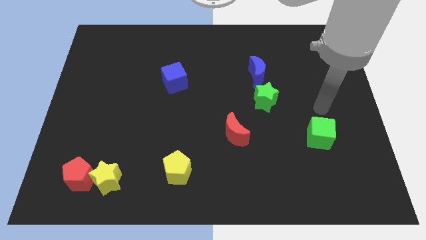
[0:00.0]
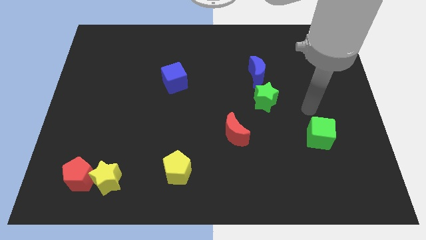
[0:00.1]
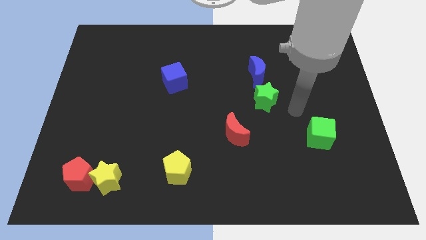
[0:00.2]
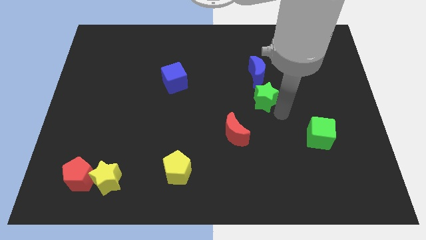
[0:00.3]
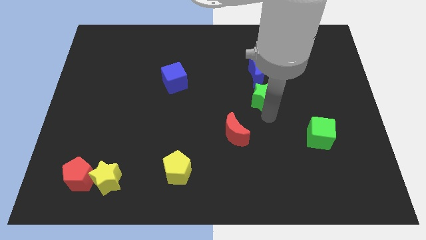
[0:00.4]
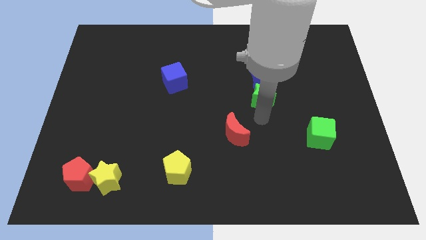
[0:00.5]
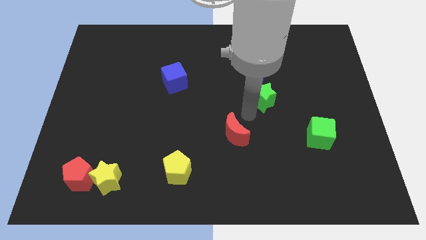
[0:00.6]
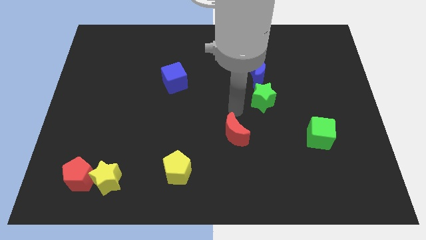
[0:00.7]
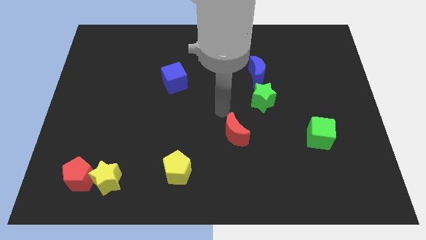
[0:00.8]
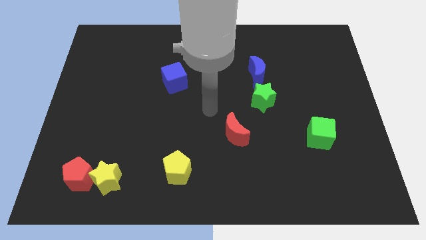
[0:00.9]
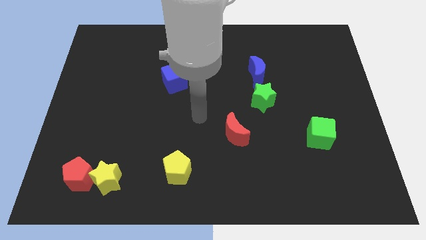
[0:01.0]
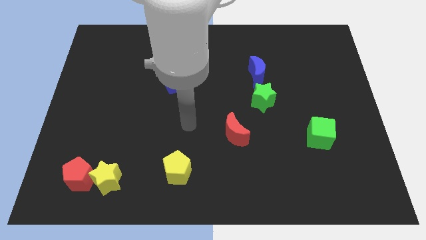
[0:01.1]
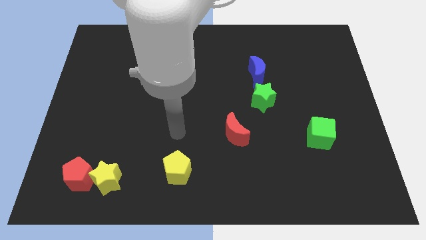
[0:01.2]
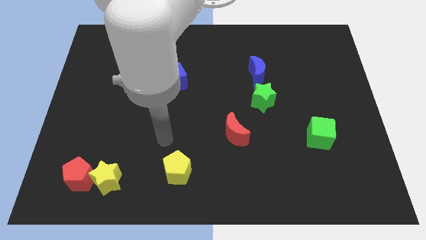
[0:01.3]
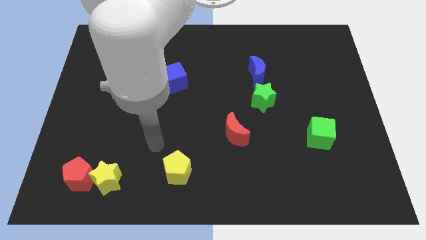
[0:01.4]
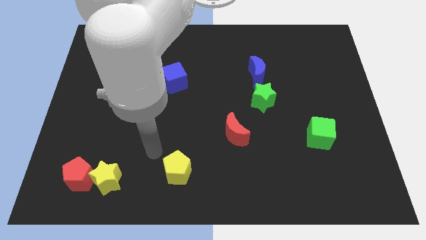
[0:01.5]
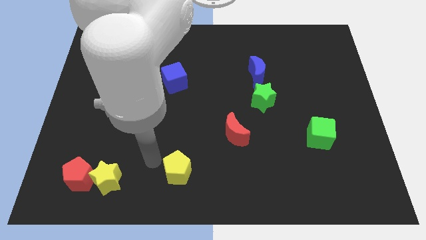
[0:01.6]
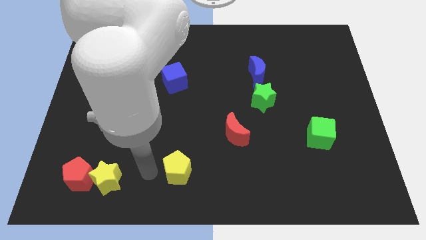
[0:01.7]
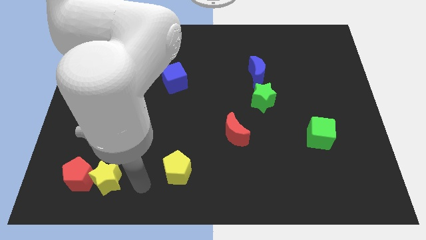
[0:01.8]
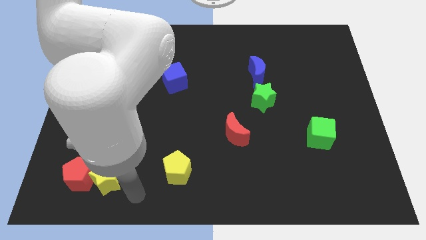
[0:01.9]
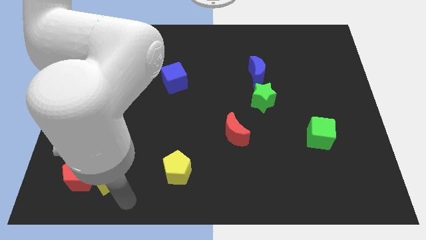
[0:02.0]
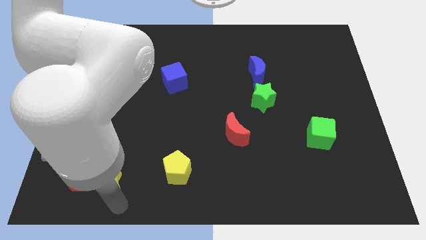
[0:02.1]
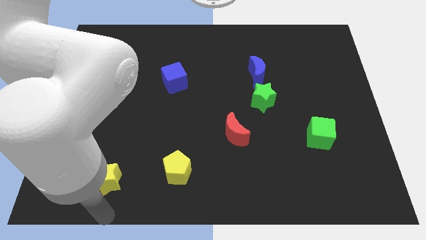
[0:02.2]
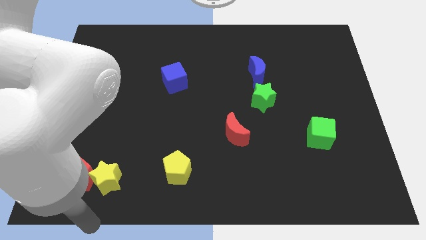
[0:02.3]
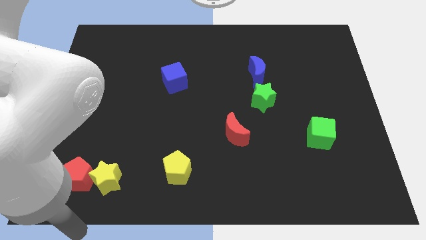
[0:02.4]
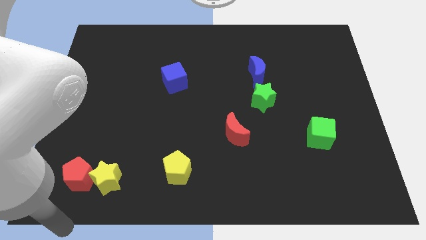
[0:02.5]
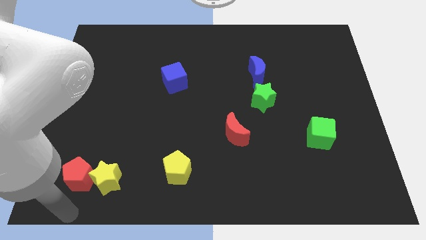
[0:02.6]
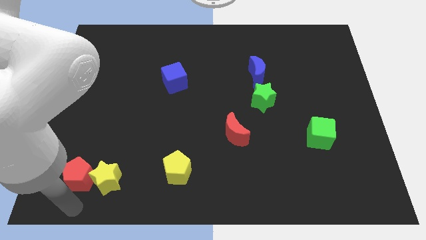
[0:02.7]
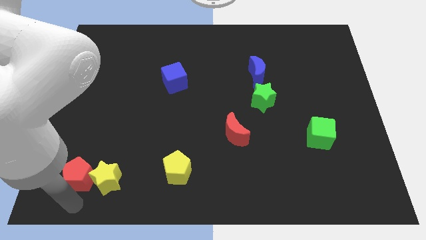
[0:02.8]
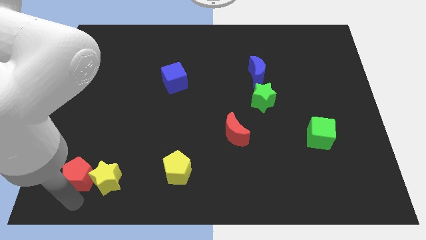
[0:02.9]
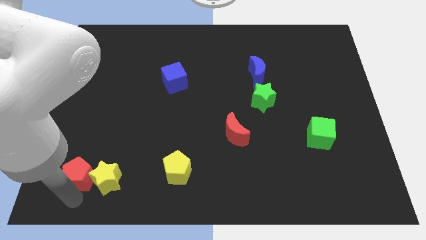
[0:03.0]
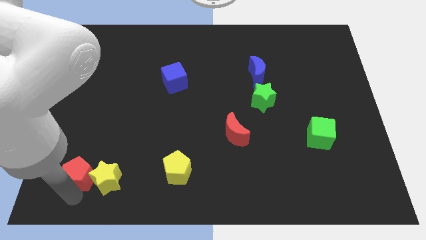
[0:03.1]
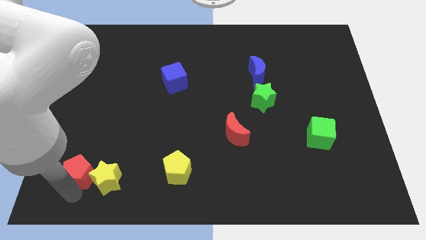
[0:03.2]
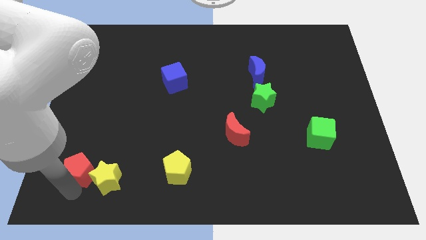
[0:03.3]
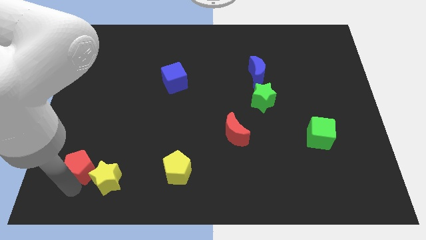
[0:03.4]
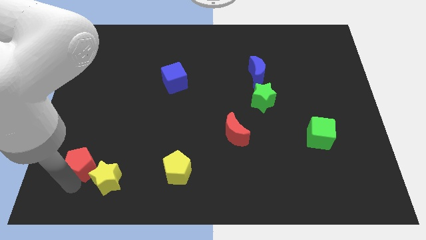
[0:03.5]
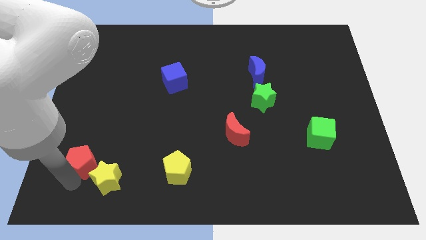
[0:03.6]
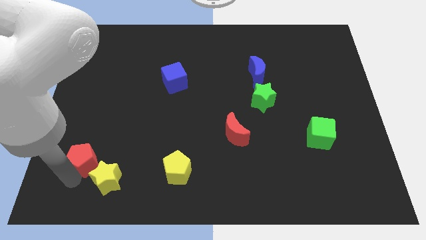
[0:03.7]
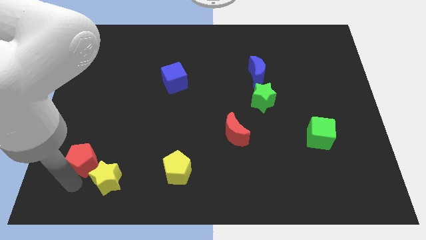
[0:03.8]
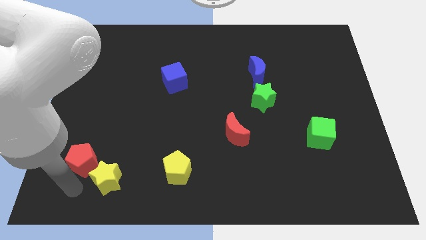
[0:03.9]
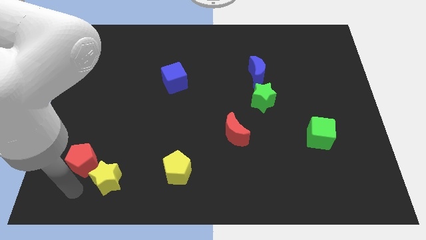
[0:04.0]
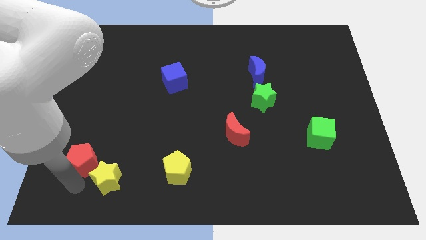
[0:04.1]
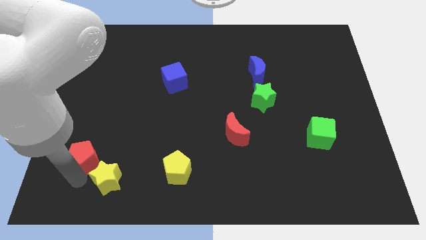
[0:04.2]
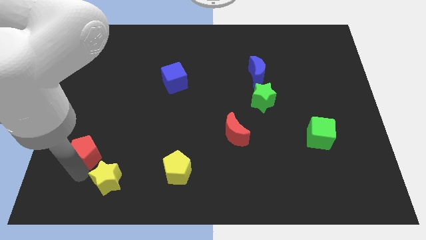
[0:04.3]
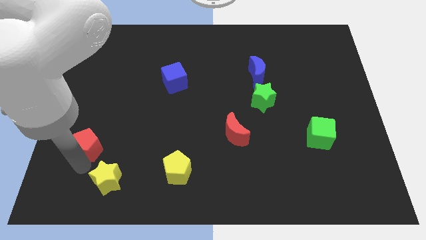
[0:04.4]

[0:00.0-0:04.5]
push the red pentagon up a bit

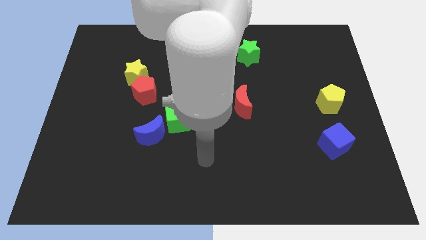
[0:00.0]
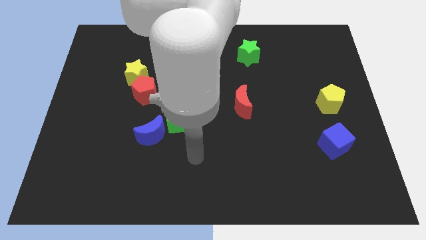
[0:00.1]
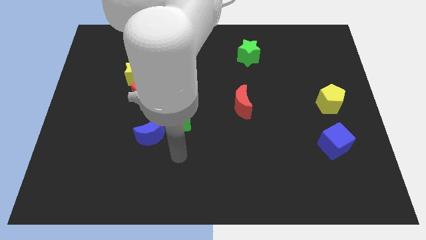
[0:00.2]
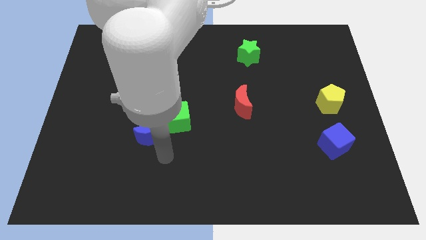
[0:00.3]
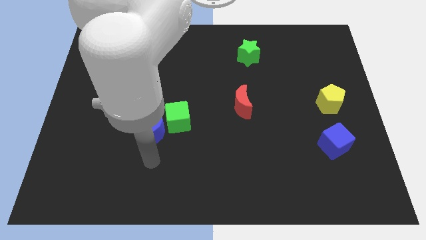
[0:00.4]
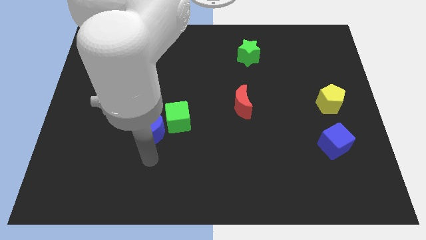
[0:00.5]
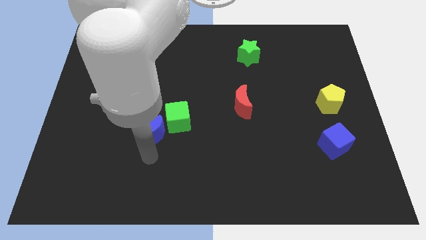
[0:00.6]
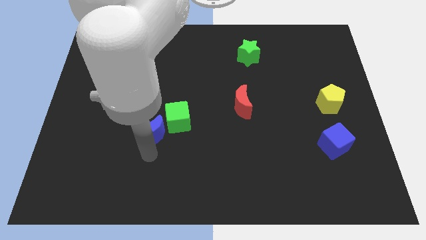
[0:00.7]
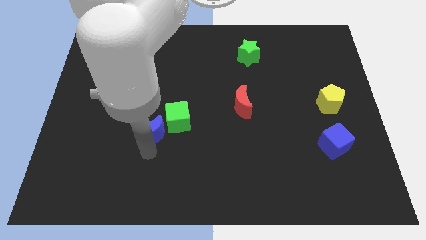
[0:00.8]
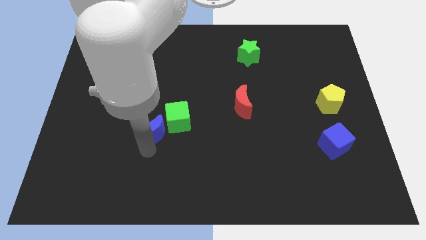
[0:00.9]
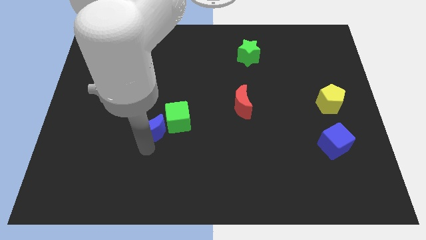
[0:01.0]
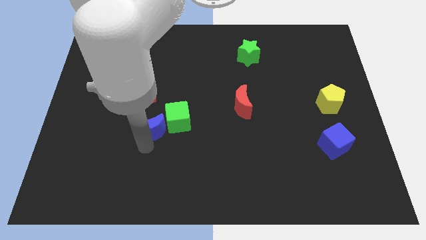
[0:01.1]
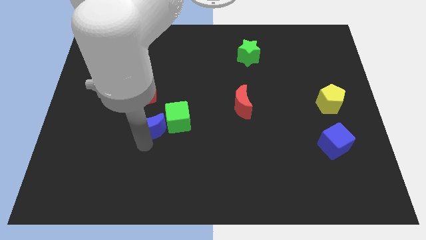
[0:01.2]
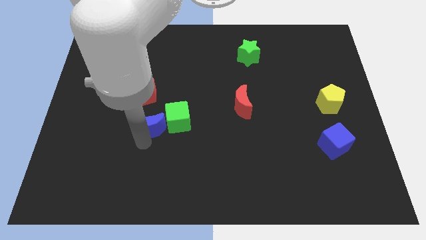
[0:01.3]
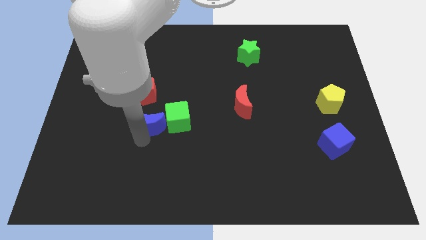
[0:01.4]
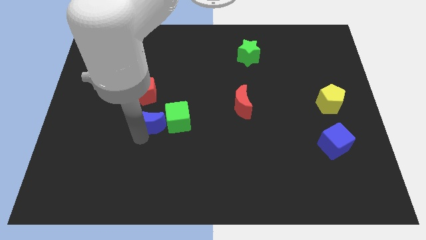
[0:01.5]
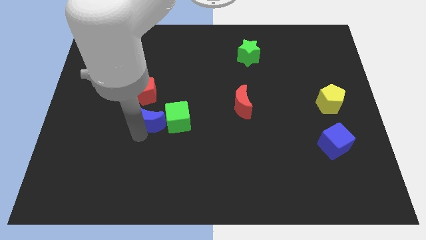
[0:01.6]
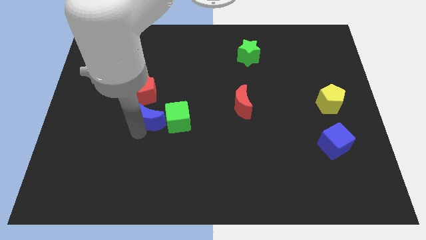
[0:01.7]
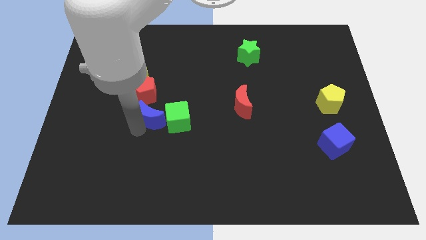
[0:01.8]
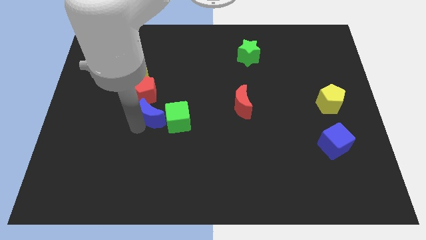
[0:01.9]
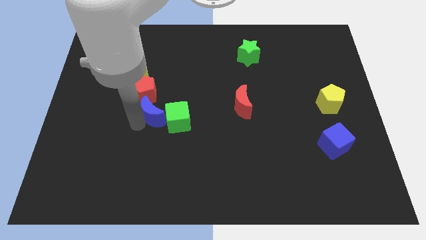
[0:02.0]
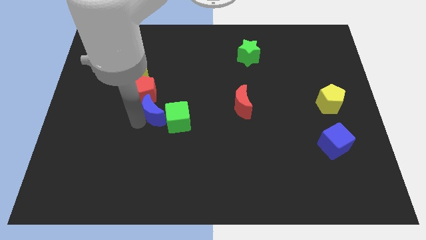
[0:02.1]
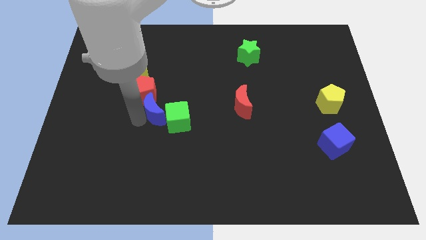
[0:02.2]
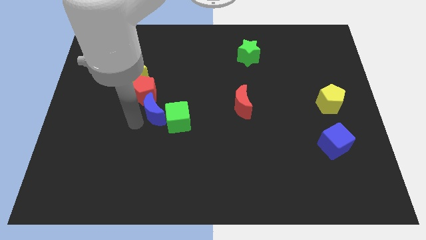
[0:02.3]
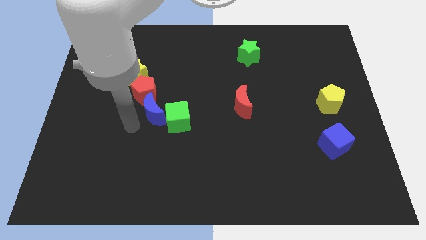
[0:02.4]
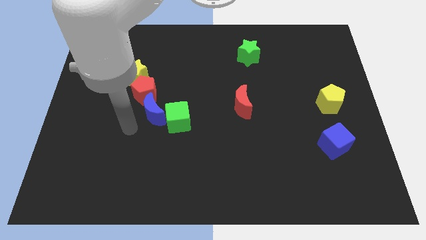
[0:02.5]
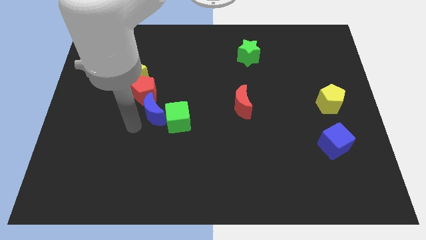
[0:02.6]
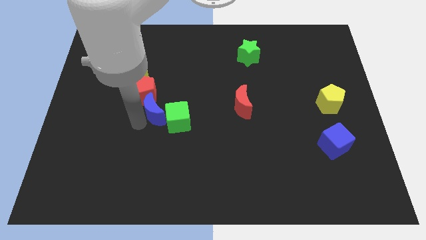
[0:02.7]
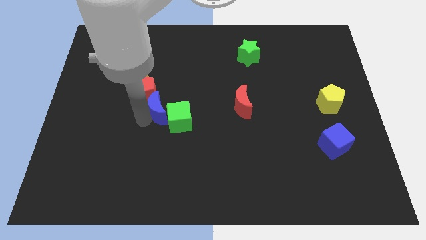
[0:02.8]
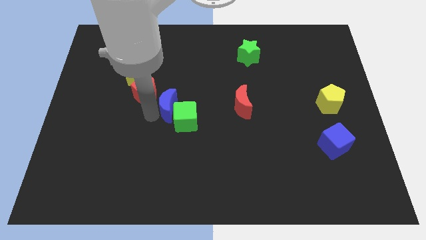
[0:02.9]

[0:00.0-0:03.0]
move the blue moon somewhat upwards and to the right diagonally

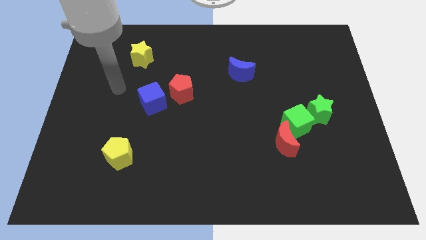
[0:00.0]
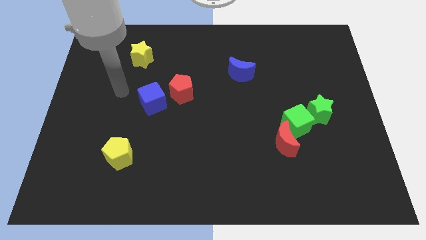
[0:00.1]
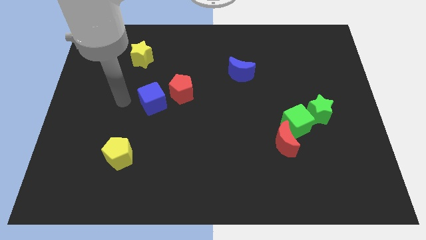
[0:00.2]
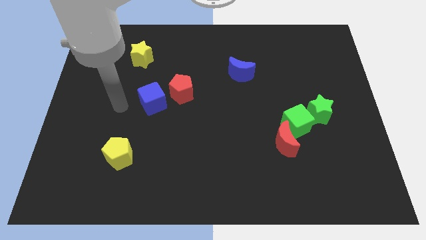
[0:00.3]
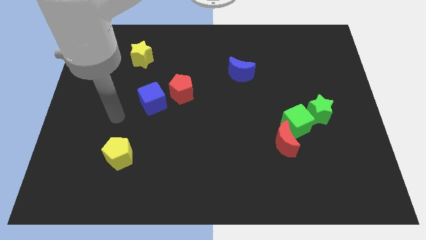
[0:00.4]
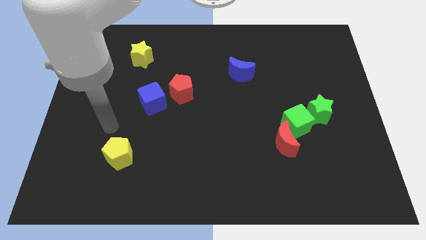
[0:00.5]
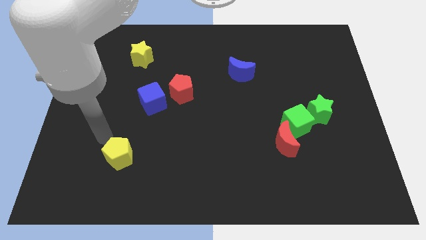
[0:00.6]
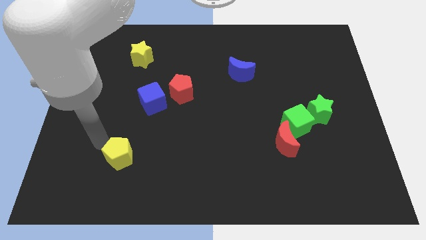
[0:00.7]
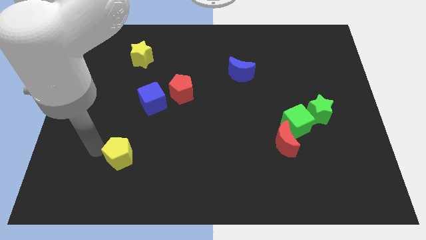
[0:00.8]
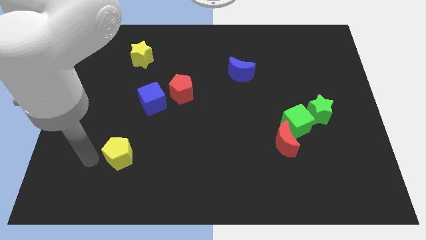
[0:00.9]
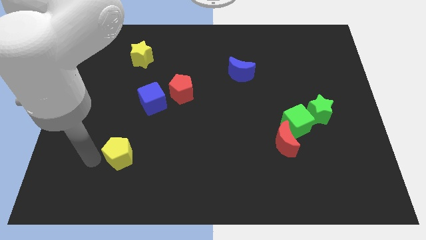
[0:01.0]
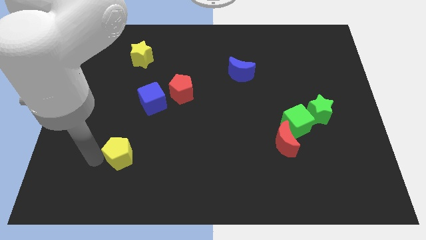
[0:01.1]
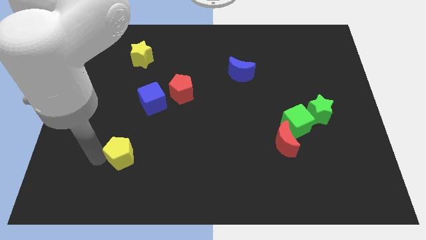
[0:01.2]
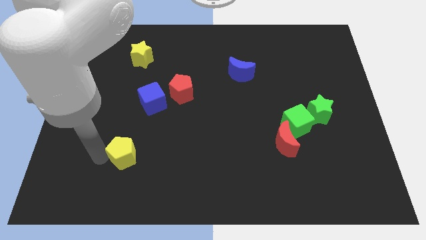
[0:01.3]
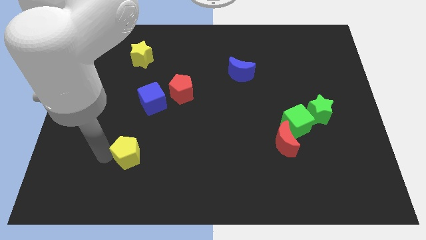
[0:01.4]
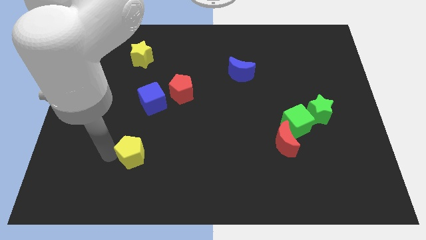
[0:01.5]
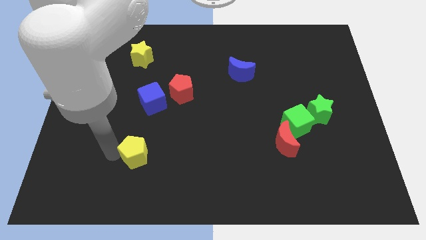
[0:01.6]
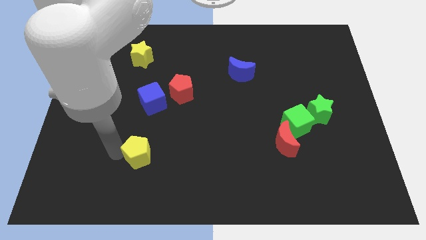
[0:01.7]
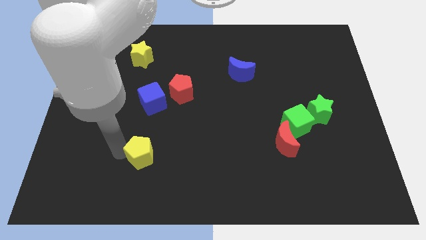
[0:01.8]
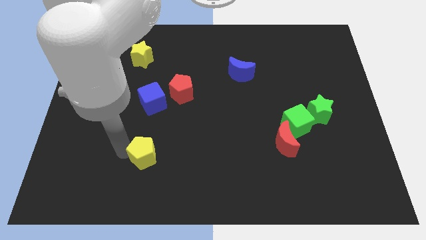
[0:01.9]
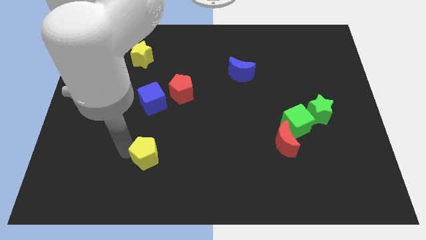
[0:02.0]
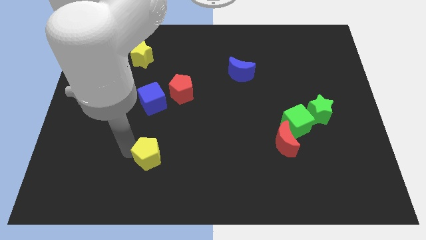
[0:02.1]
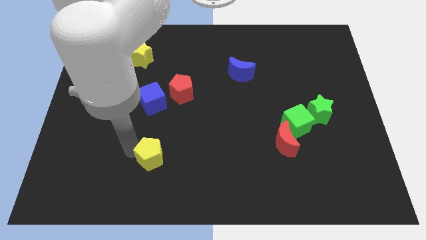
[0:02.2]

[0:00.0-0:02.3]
slightly slide the yellow pentagon right
